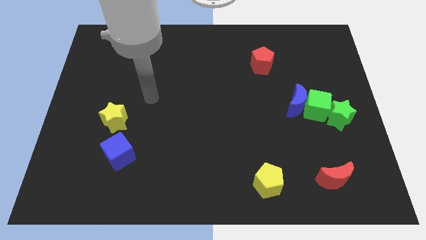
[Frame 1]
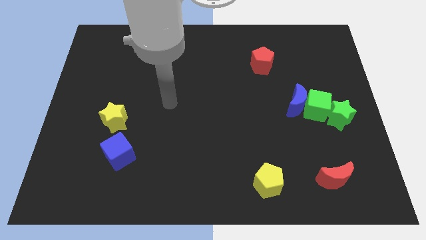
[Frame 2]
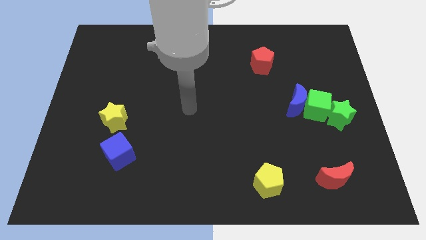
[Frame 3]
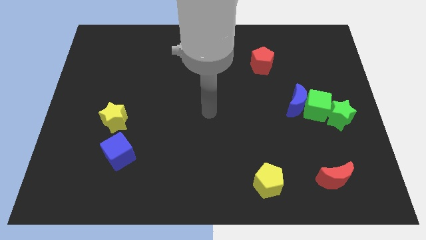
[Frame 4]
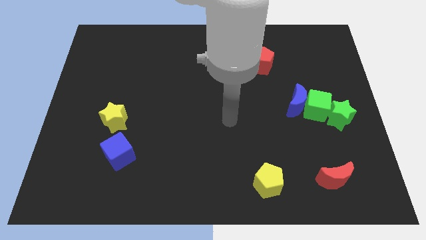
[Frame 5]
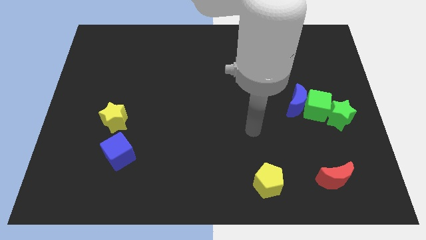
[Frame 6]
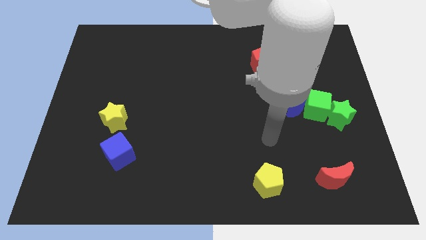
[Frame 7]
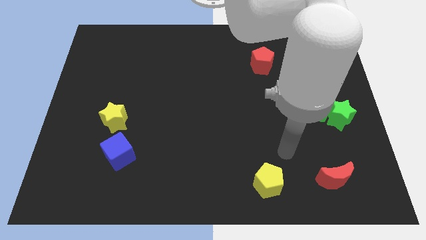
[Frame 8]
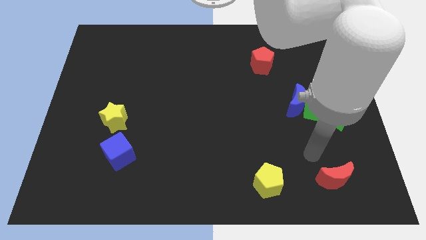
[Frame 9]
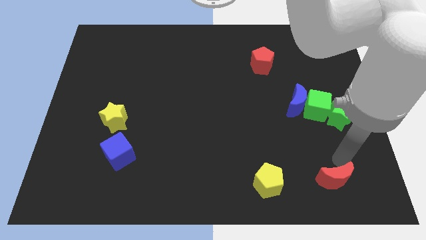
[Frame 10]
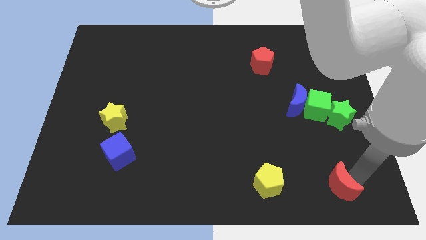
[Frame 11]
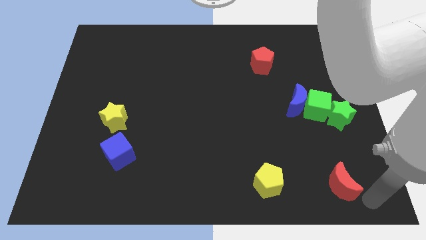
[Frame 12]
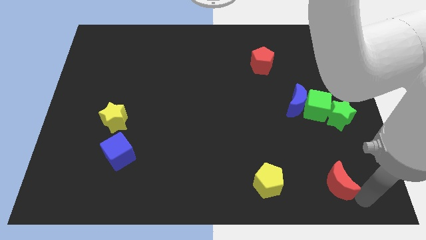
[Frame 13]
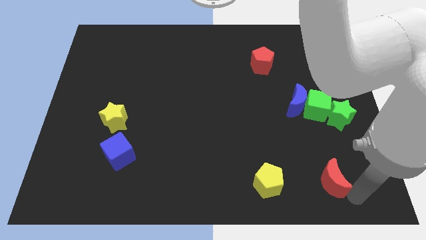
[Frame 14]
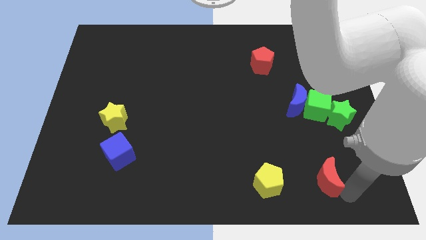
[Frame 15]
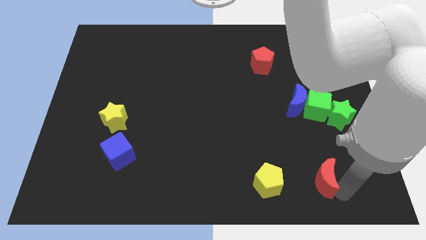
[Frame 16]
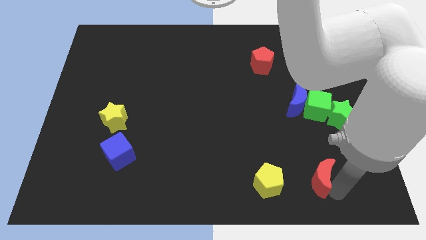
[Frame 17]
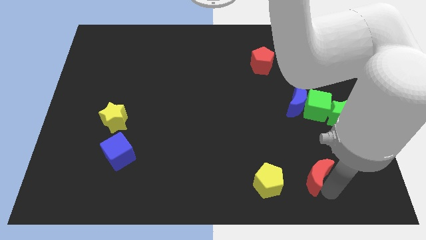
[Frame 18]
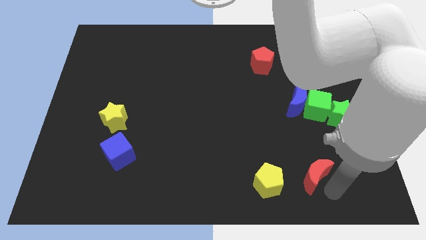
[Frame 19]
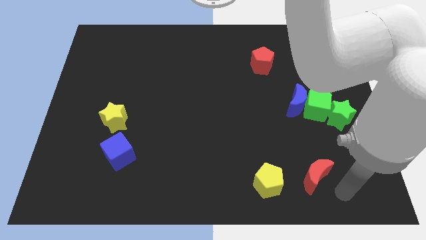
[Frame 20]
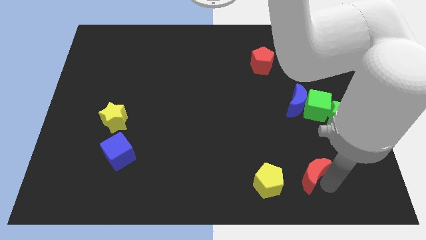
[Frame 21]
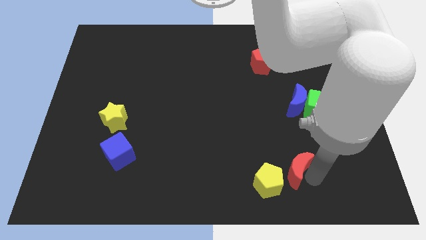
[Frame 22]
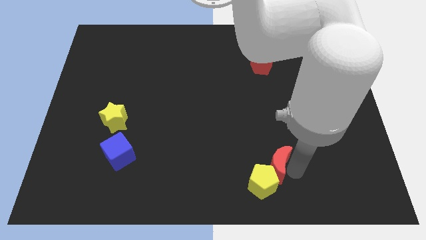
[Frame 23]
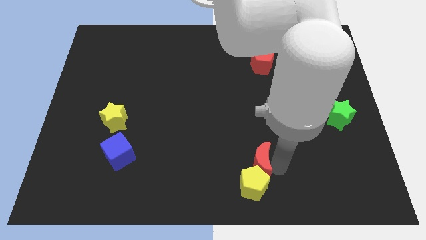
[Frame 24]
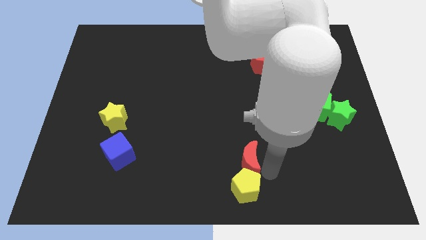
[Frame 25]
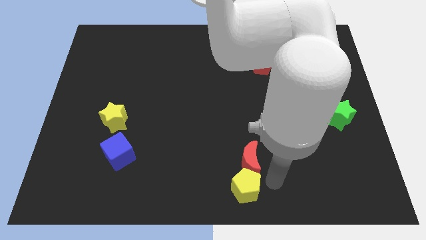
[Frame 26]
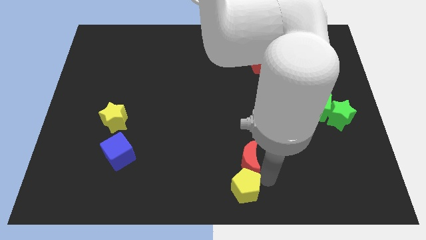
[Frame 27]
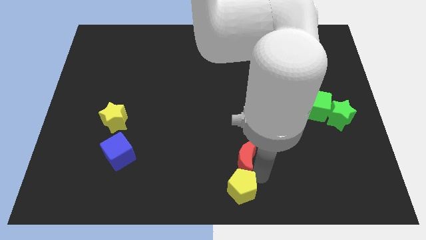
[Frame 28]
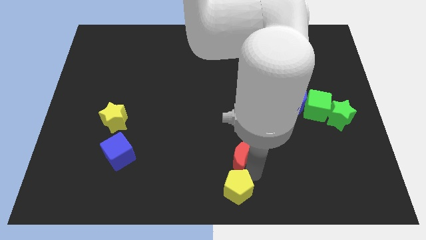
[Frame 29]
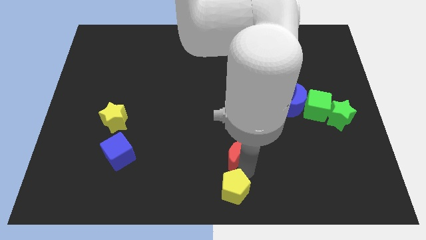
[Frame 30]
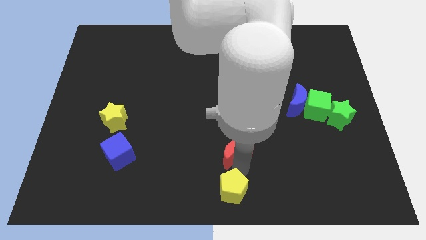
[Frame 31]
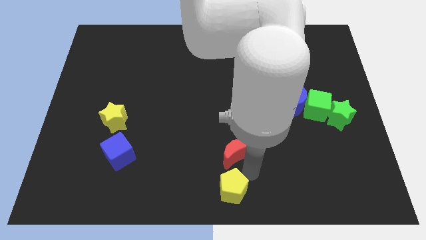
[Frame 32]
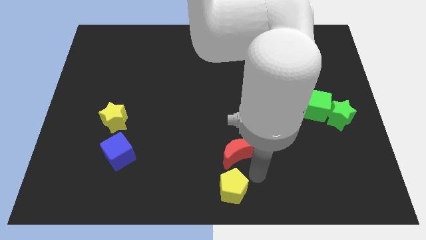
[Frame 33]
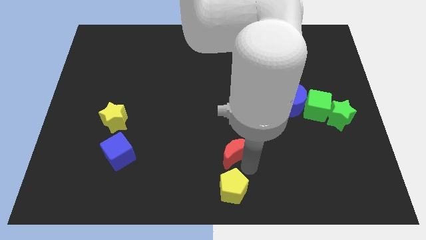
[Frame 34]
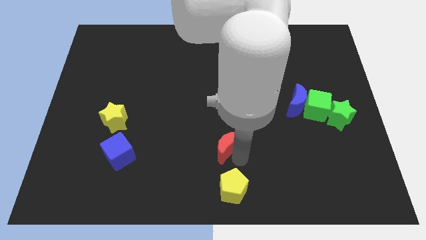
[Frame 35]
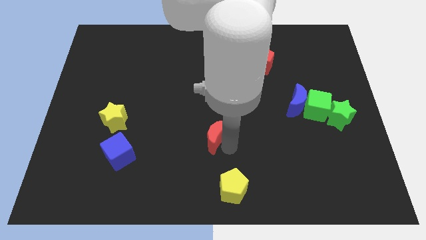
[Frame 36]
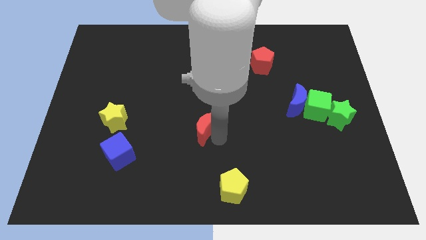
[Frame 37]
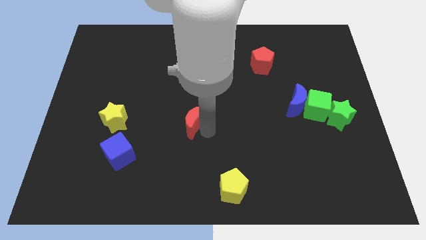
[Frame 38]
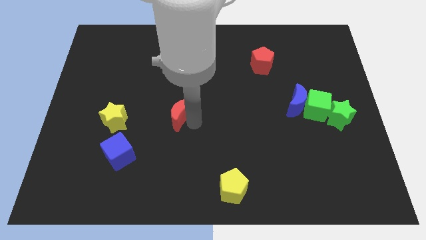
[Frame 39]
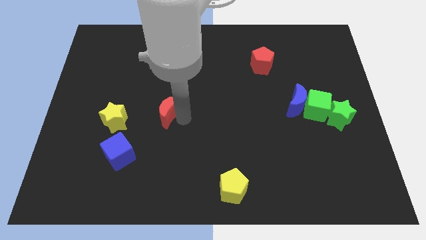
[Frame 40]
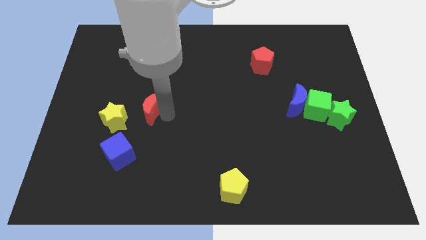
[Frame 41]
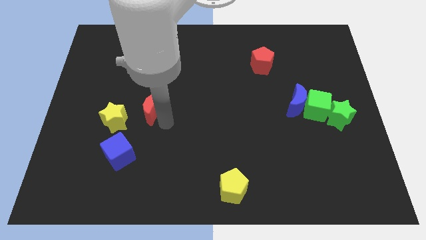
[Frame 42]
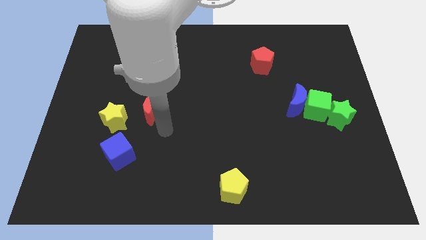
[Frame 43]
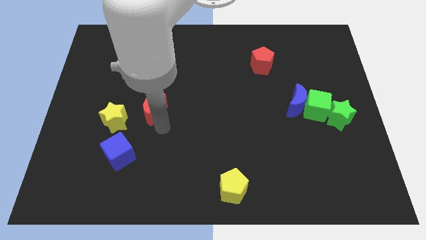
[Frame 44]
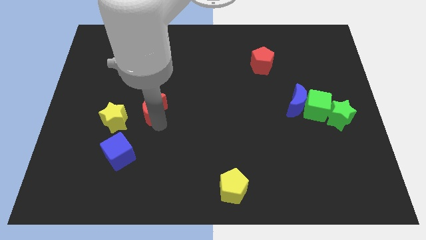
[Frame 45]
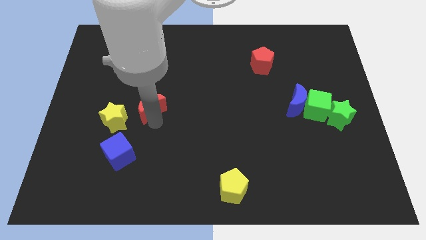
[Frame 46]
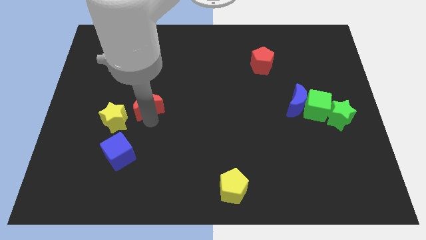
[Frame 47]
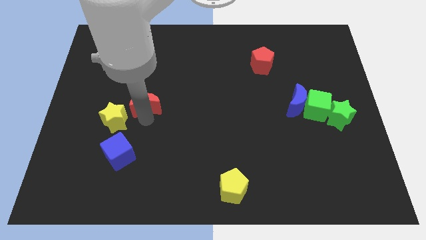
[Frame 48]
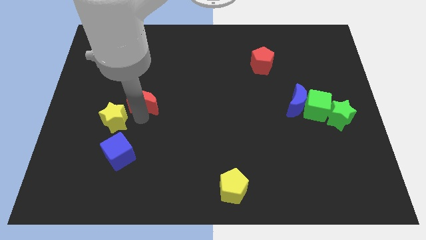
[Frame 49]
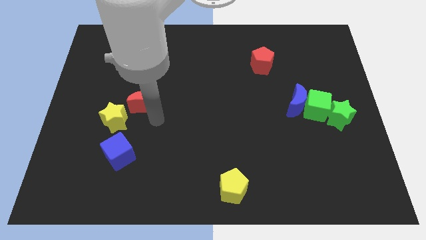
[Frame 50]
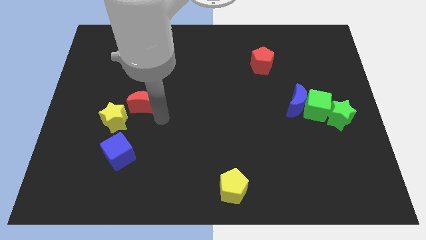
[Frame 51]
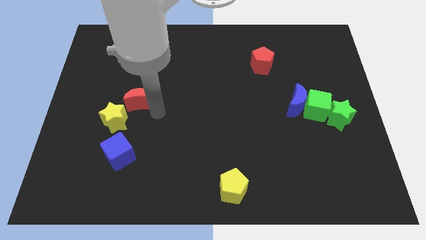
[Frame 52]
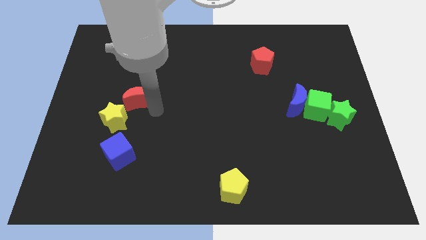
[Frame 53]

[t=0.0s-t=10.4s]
push the red moon above the yellow star
